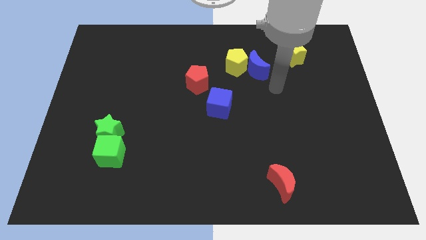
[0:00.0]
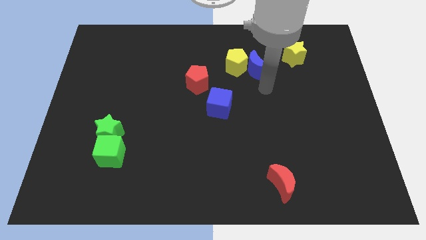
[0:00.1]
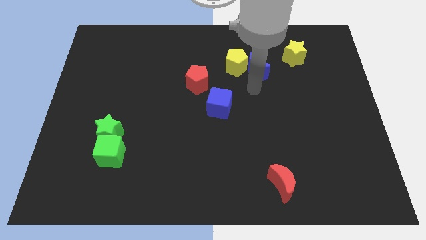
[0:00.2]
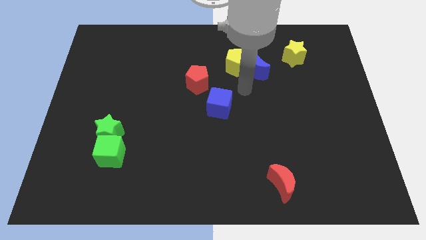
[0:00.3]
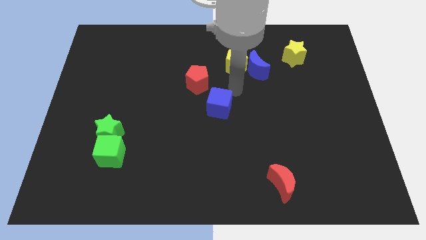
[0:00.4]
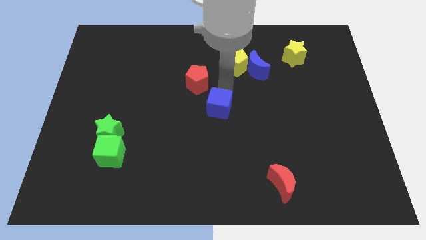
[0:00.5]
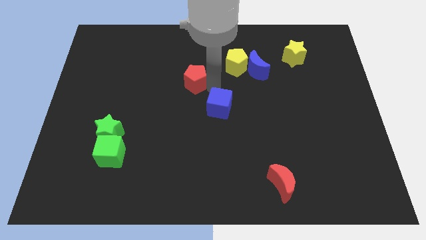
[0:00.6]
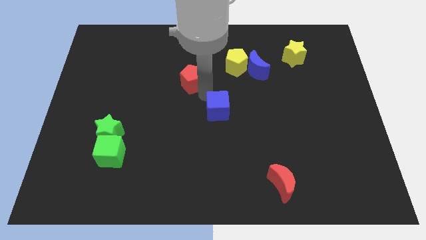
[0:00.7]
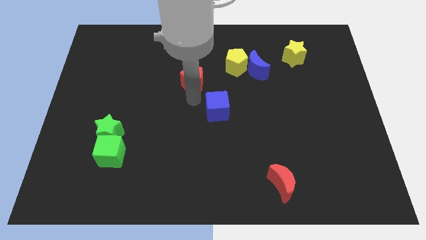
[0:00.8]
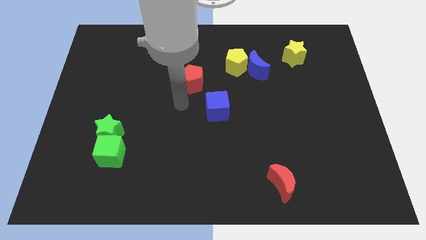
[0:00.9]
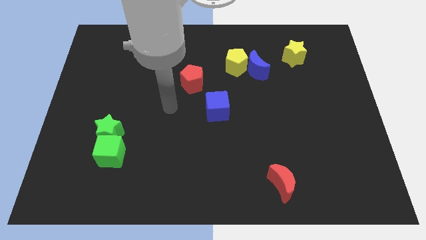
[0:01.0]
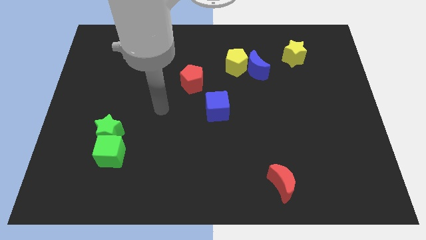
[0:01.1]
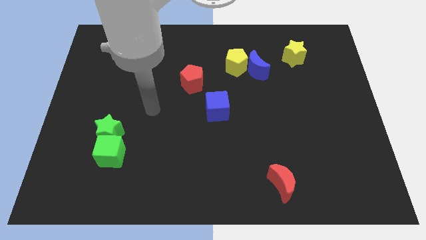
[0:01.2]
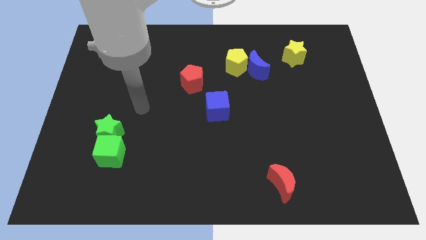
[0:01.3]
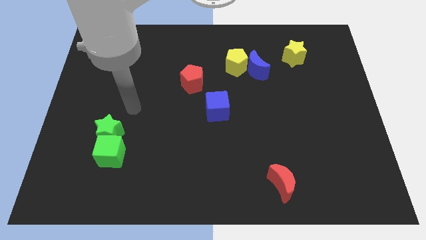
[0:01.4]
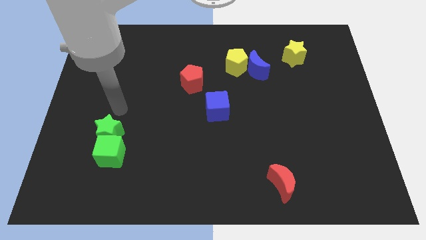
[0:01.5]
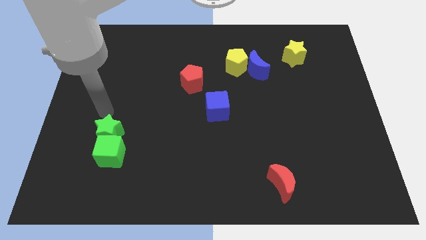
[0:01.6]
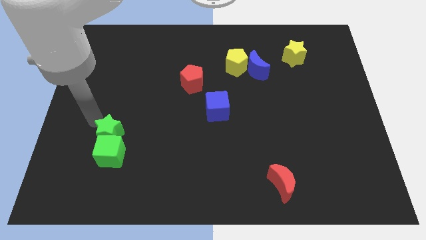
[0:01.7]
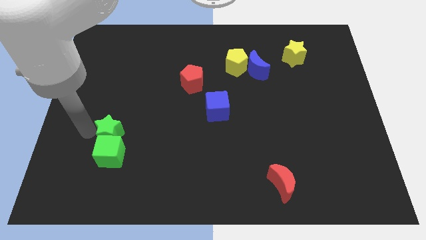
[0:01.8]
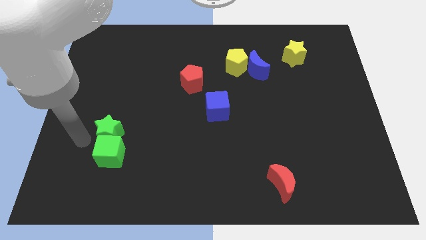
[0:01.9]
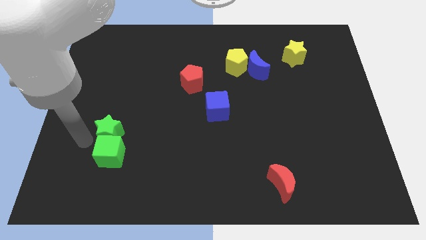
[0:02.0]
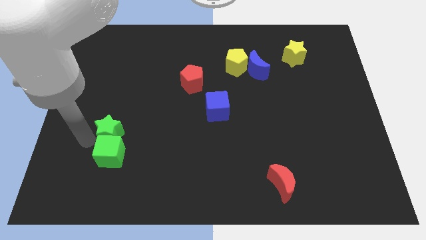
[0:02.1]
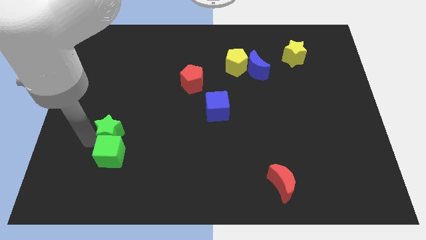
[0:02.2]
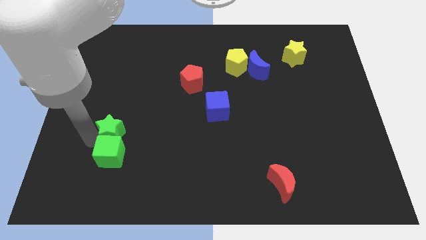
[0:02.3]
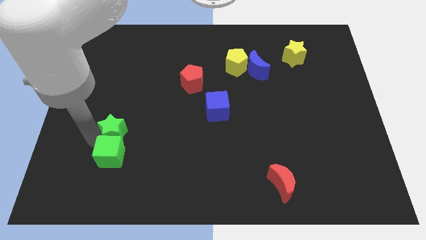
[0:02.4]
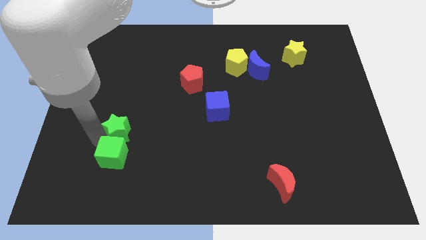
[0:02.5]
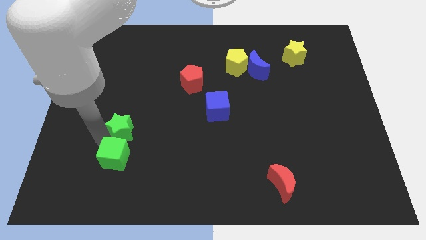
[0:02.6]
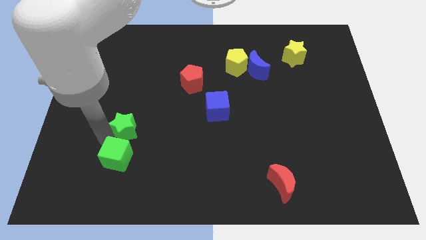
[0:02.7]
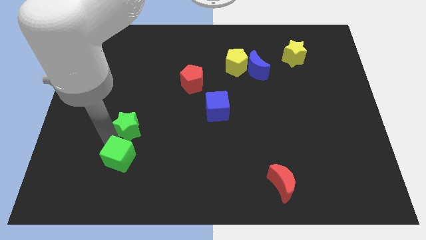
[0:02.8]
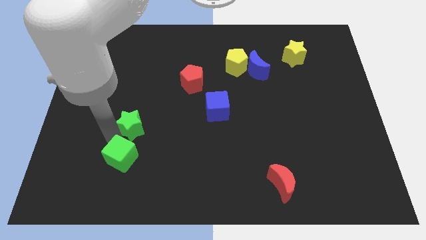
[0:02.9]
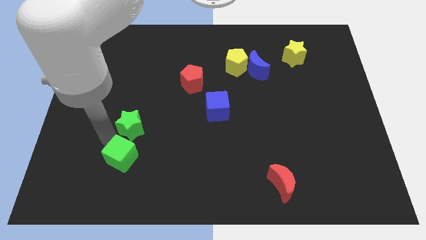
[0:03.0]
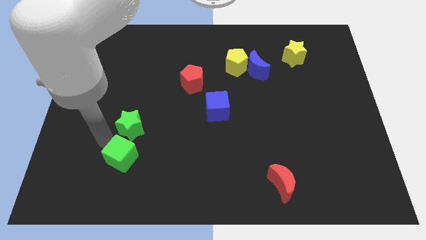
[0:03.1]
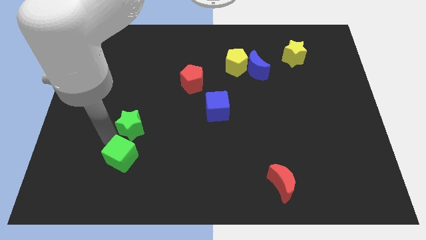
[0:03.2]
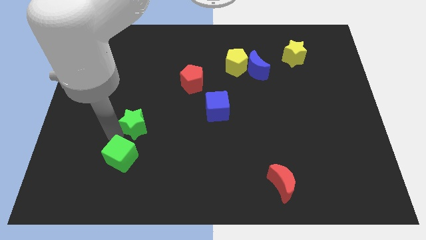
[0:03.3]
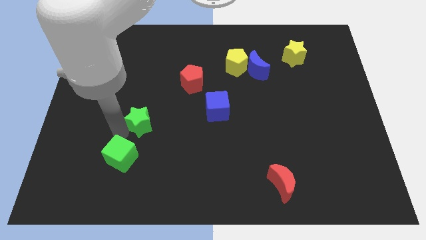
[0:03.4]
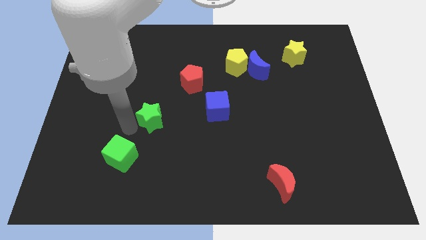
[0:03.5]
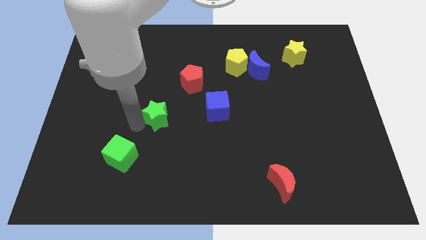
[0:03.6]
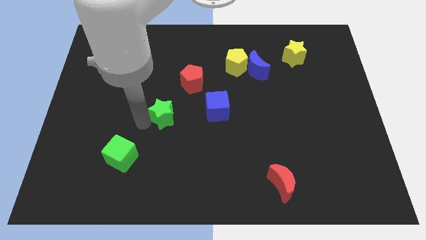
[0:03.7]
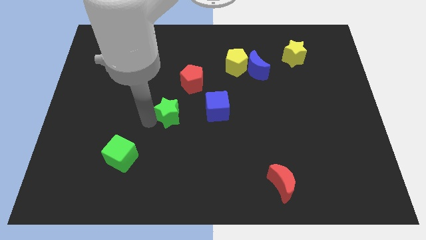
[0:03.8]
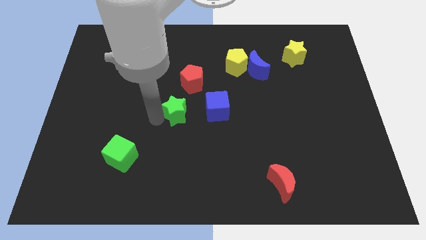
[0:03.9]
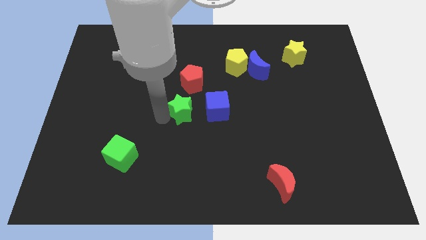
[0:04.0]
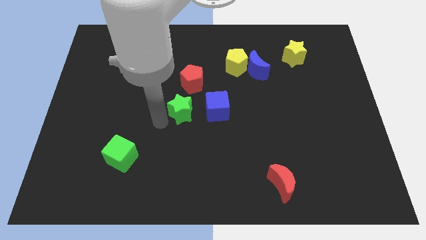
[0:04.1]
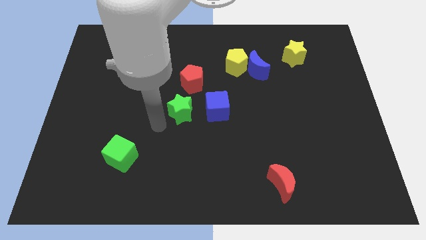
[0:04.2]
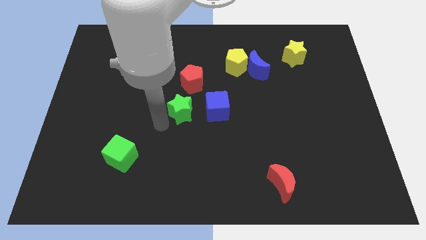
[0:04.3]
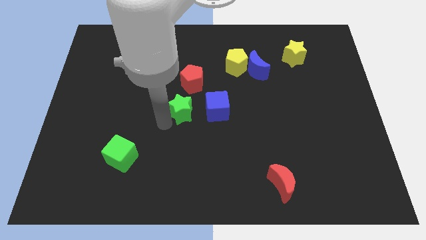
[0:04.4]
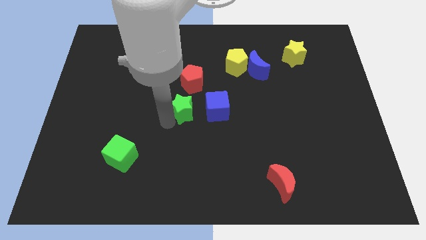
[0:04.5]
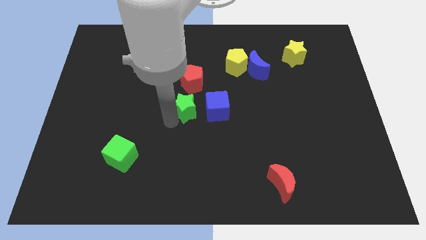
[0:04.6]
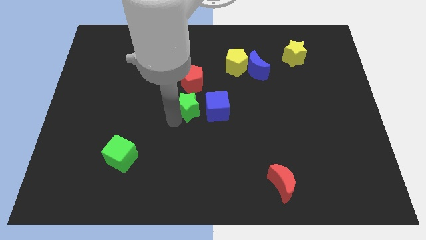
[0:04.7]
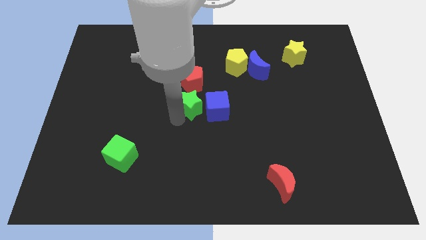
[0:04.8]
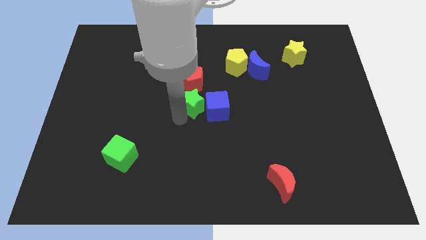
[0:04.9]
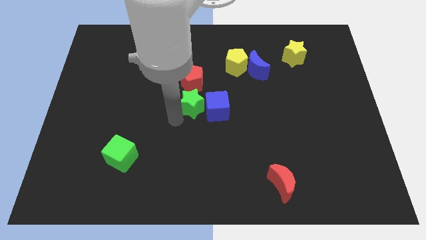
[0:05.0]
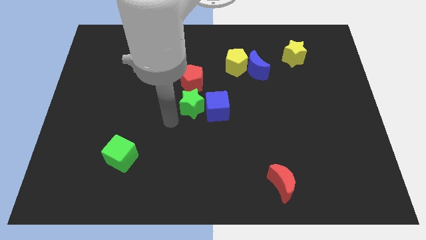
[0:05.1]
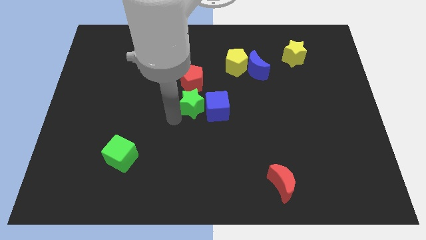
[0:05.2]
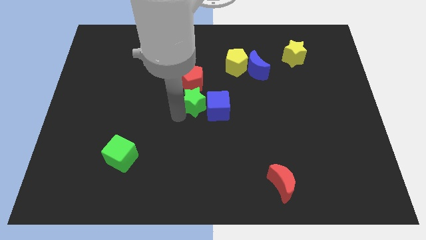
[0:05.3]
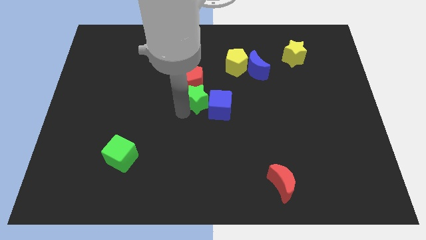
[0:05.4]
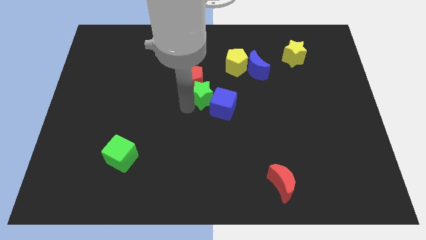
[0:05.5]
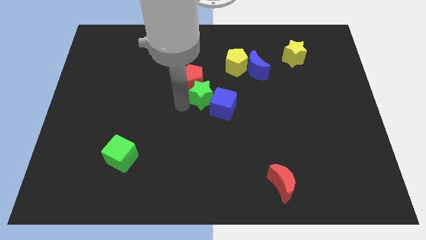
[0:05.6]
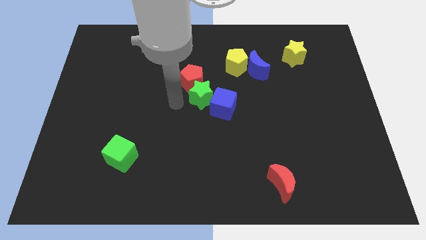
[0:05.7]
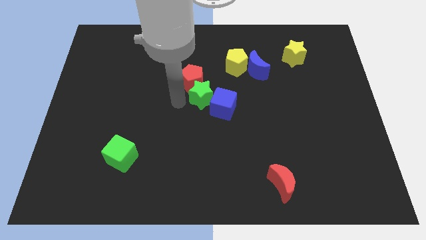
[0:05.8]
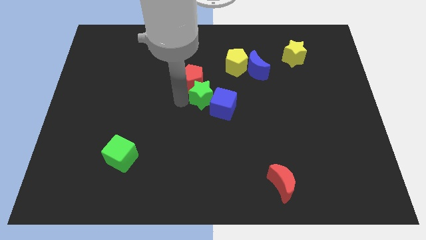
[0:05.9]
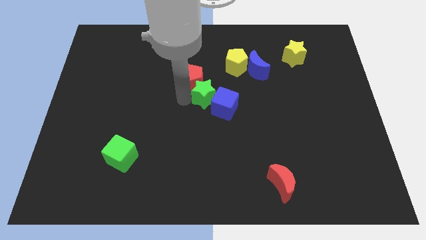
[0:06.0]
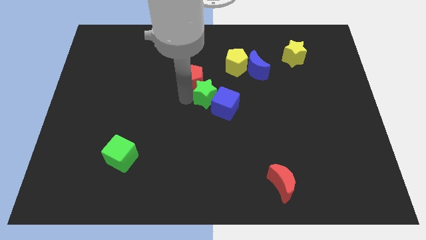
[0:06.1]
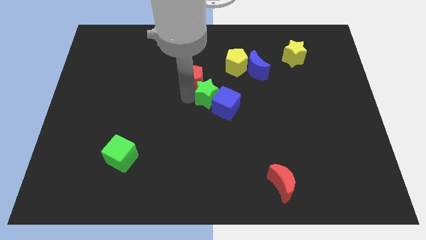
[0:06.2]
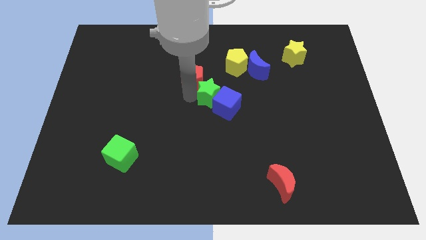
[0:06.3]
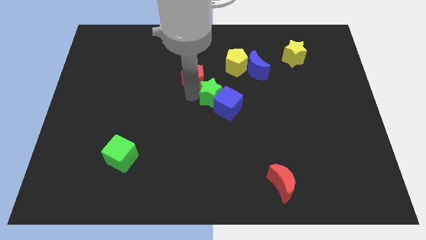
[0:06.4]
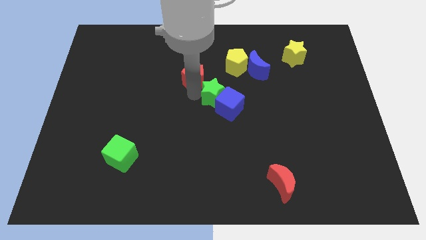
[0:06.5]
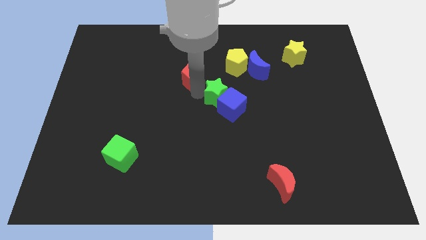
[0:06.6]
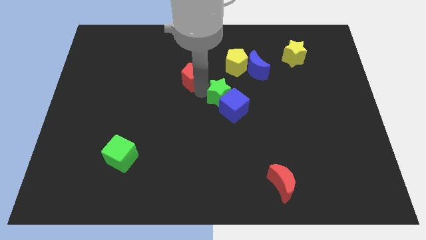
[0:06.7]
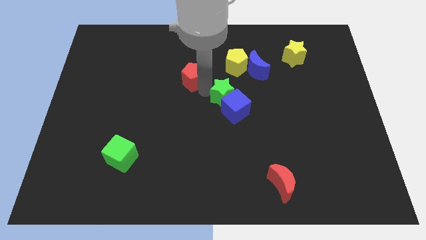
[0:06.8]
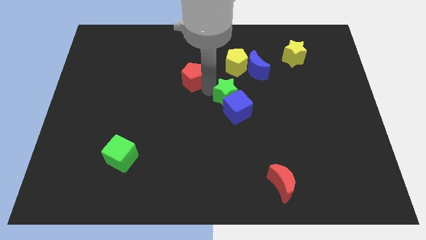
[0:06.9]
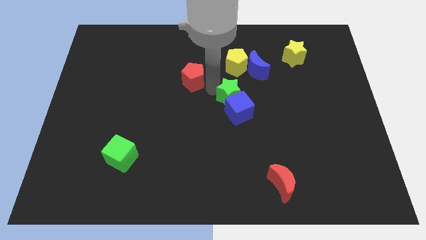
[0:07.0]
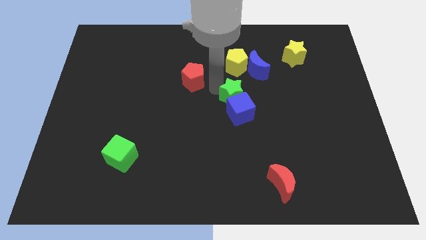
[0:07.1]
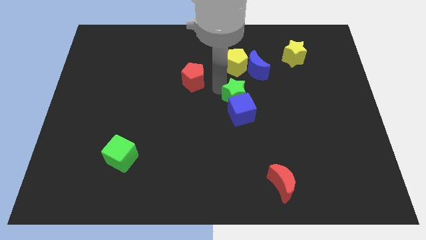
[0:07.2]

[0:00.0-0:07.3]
put the green star diagonally up and to the right of the blue cube
